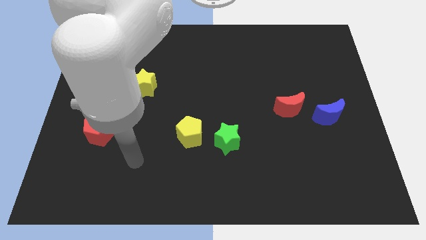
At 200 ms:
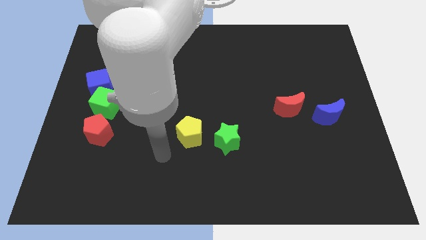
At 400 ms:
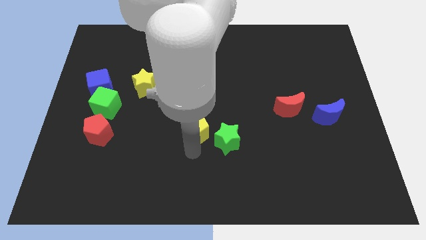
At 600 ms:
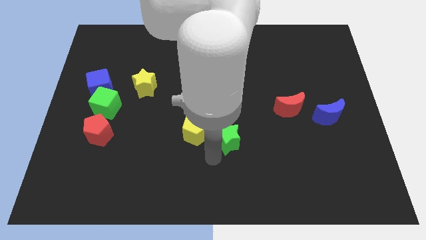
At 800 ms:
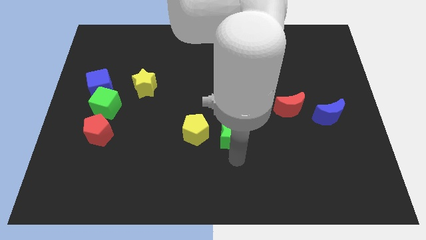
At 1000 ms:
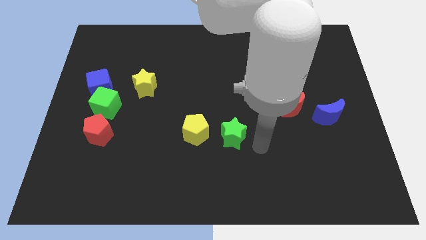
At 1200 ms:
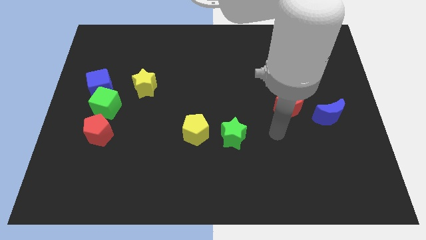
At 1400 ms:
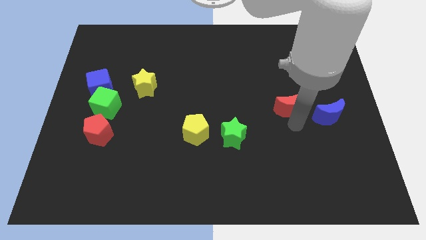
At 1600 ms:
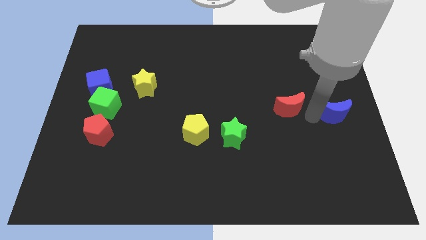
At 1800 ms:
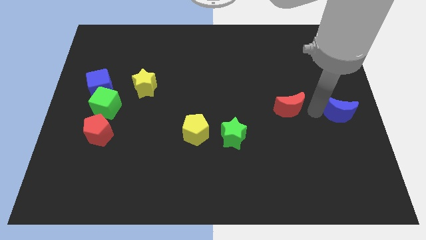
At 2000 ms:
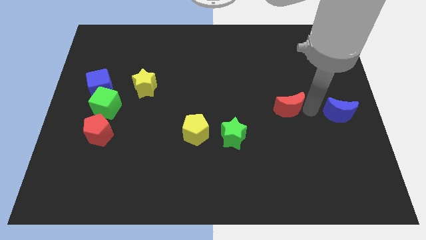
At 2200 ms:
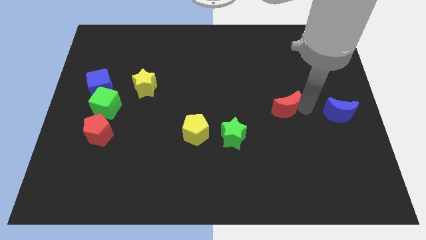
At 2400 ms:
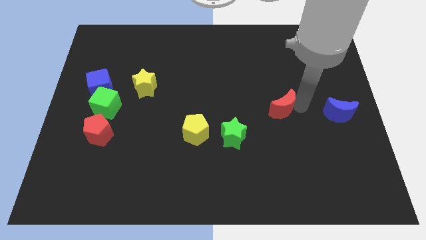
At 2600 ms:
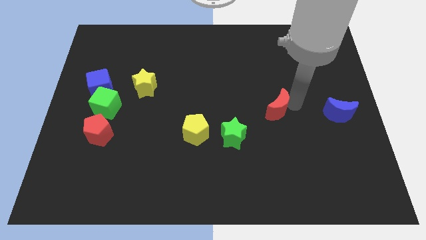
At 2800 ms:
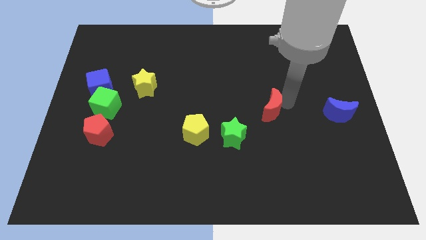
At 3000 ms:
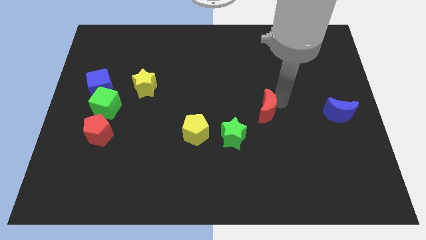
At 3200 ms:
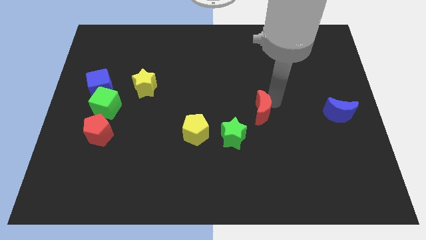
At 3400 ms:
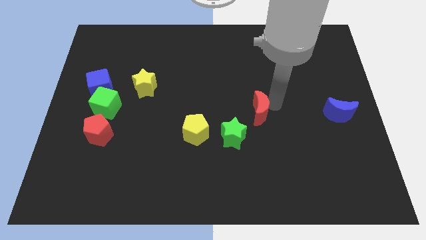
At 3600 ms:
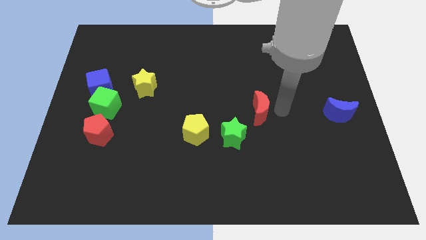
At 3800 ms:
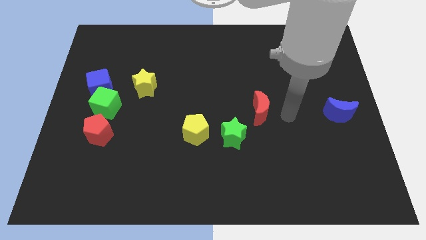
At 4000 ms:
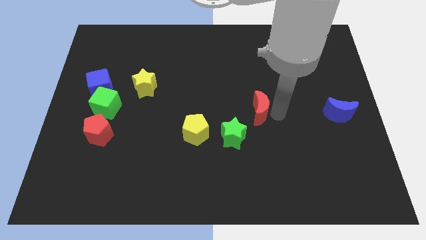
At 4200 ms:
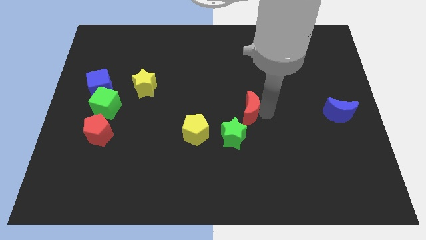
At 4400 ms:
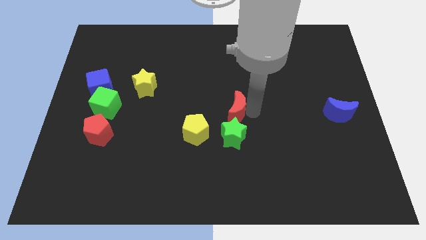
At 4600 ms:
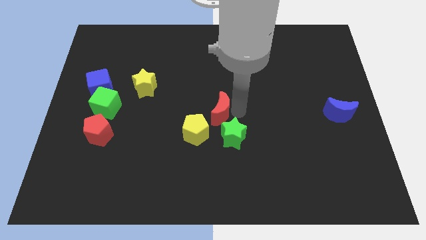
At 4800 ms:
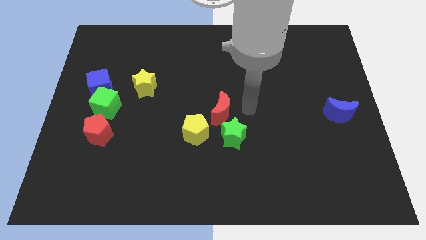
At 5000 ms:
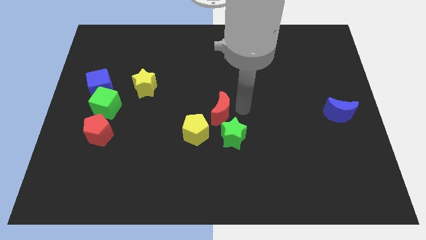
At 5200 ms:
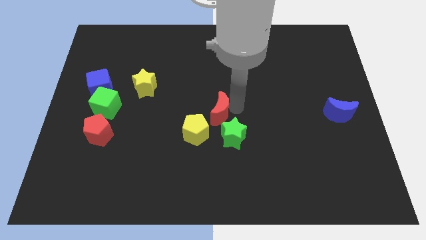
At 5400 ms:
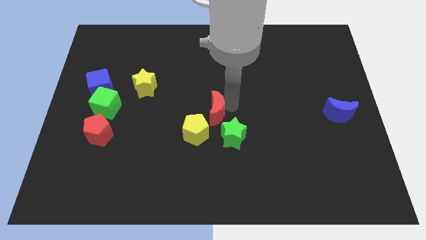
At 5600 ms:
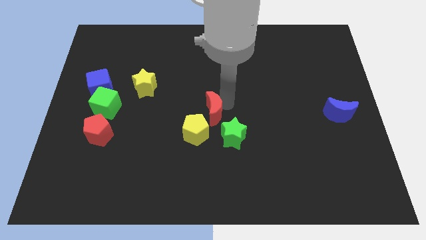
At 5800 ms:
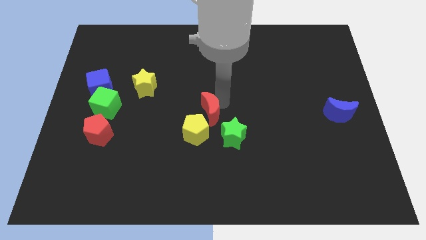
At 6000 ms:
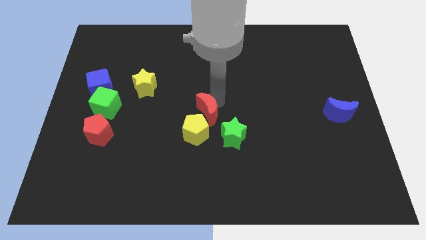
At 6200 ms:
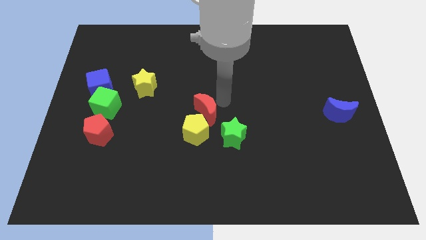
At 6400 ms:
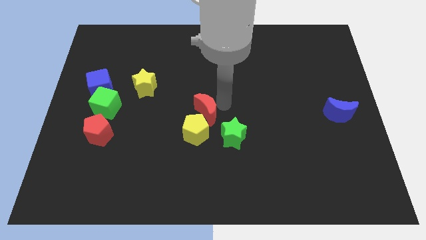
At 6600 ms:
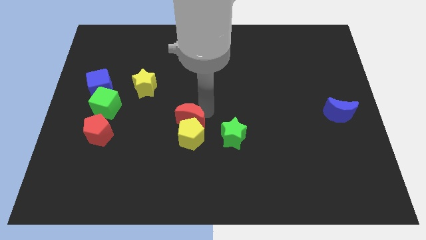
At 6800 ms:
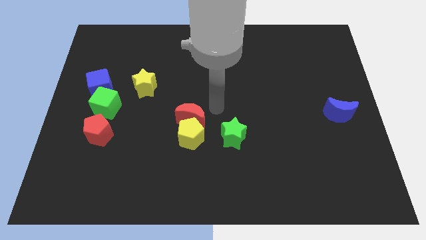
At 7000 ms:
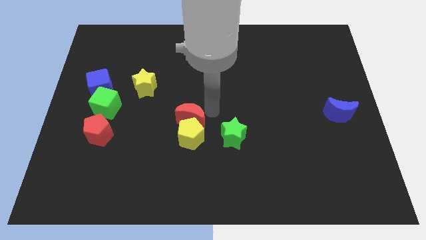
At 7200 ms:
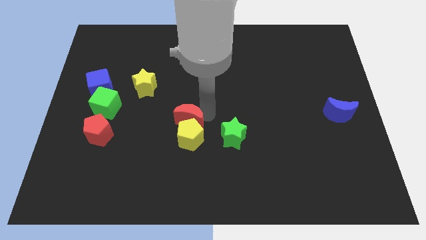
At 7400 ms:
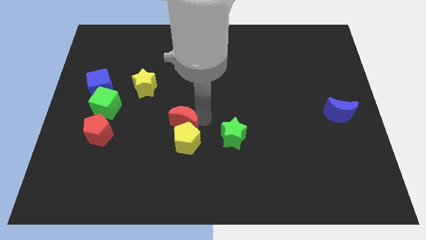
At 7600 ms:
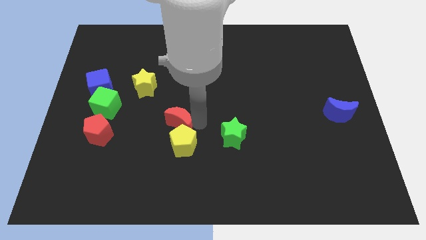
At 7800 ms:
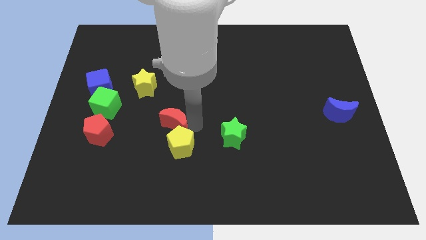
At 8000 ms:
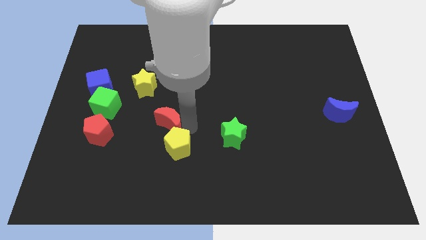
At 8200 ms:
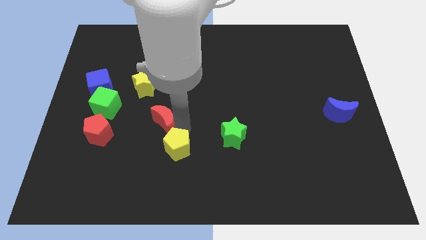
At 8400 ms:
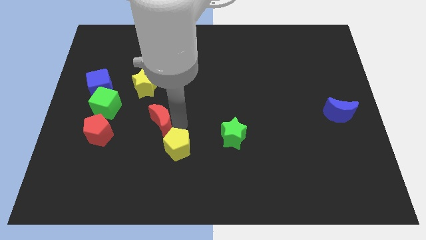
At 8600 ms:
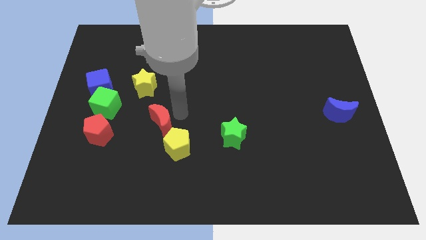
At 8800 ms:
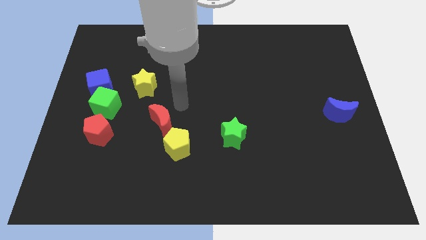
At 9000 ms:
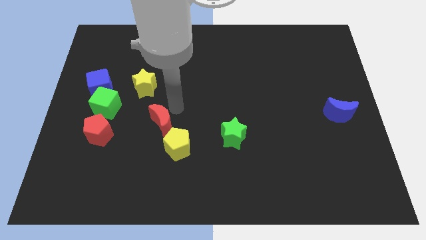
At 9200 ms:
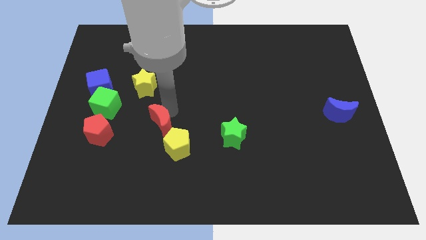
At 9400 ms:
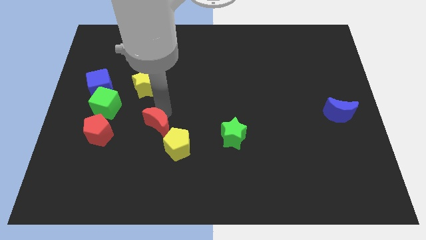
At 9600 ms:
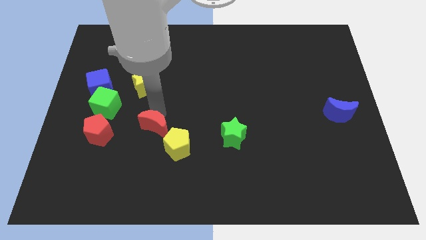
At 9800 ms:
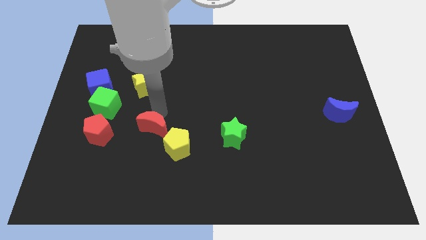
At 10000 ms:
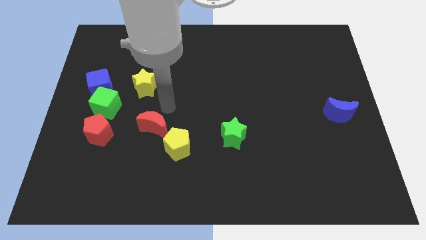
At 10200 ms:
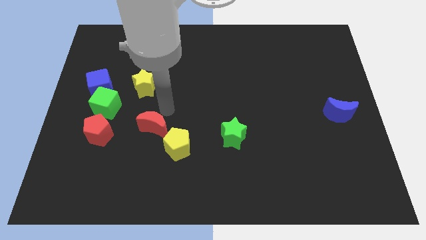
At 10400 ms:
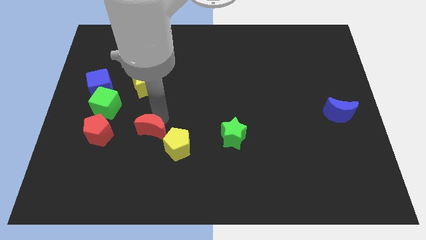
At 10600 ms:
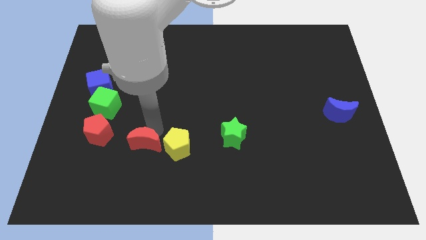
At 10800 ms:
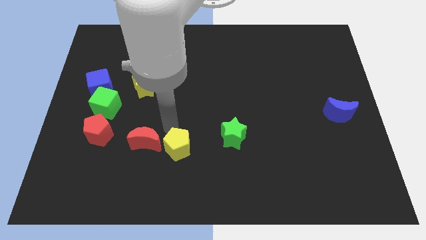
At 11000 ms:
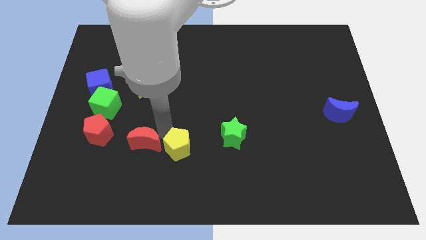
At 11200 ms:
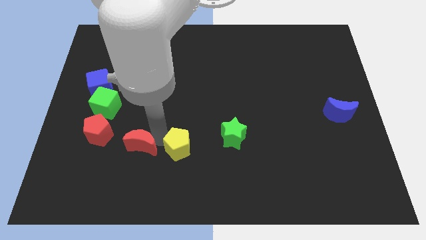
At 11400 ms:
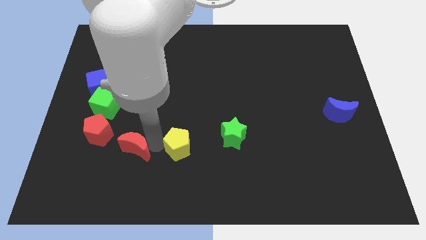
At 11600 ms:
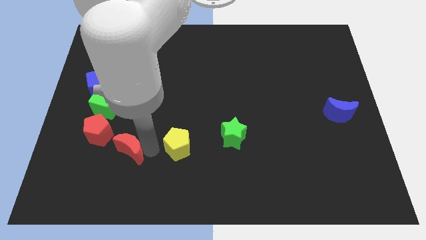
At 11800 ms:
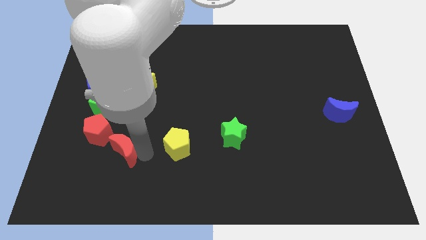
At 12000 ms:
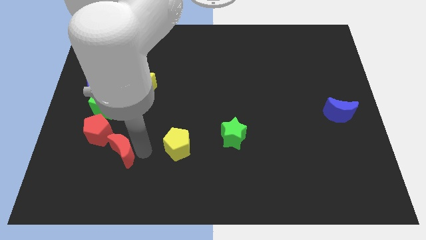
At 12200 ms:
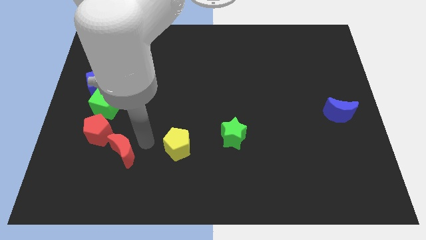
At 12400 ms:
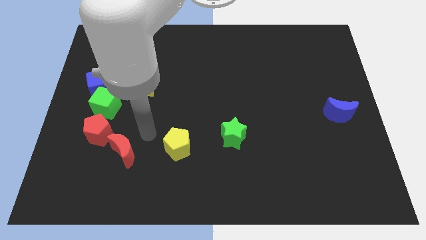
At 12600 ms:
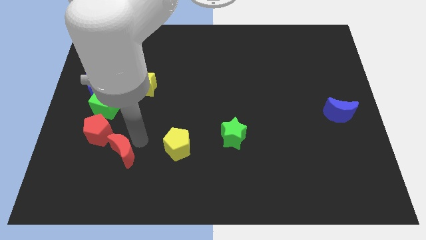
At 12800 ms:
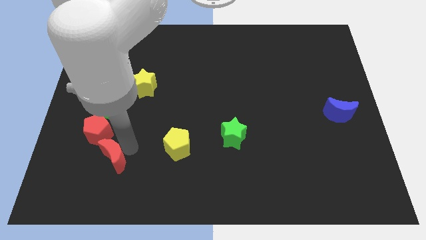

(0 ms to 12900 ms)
put the red moon to the bottom of the red pentagon
